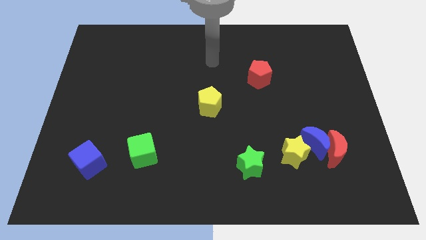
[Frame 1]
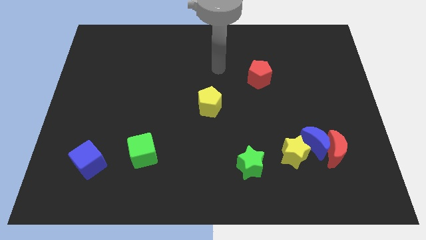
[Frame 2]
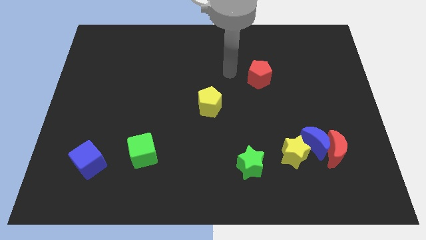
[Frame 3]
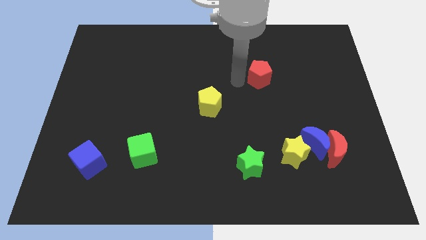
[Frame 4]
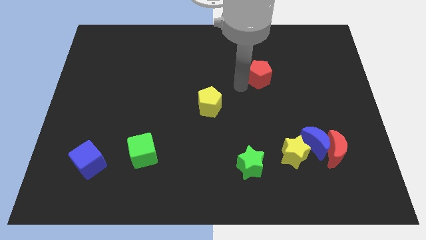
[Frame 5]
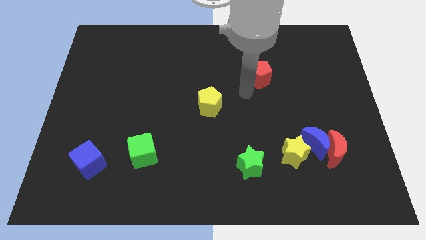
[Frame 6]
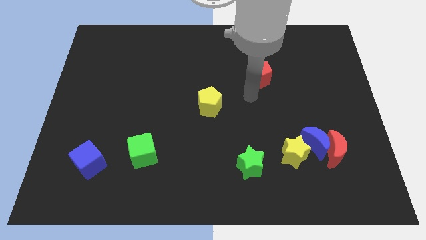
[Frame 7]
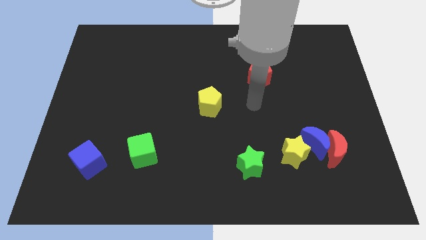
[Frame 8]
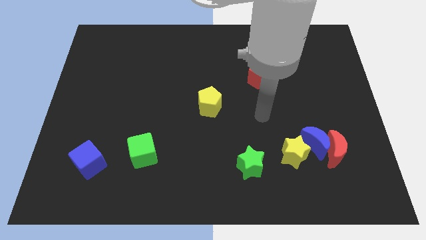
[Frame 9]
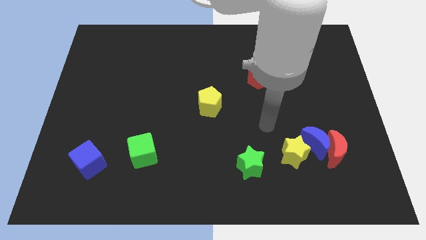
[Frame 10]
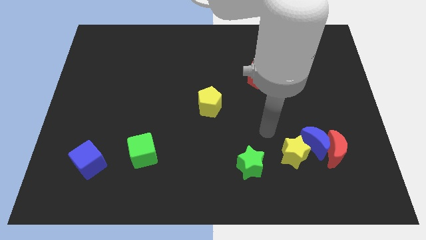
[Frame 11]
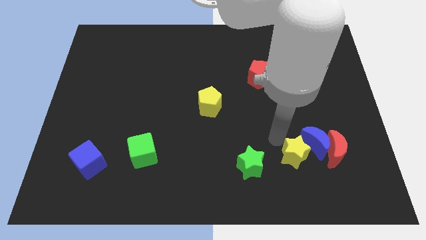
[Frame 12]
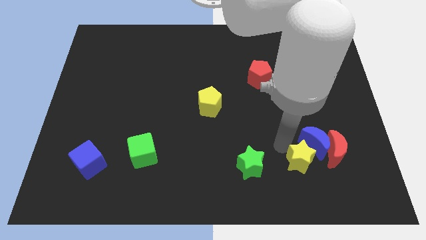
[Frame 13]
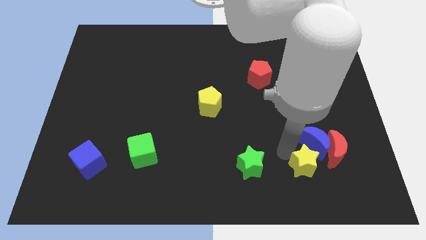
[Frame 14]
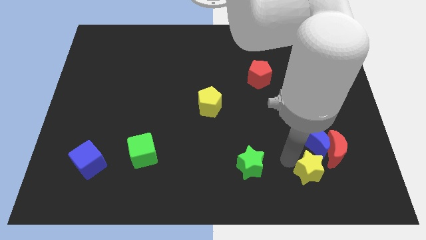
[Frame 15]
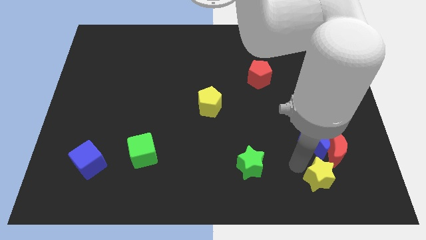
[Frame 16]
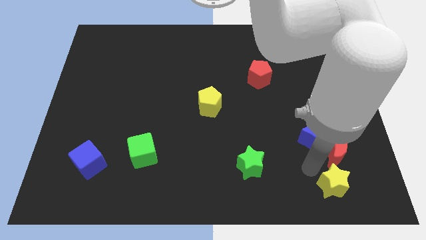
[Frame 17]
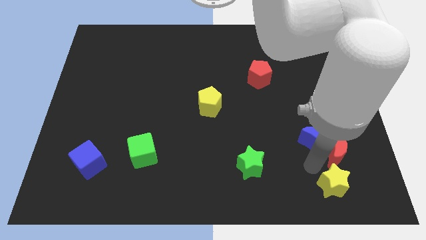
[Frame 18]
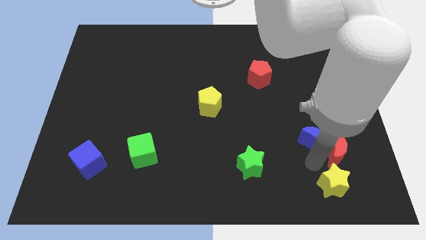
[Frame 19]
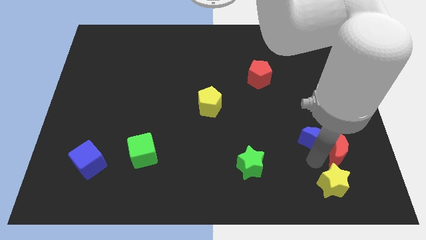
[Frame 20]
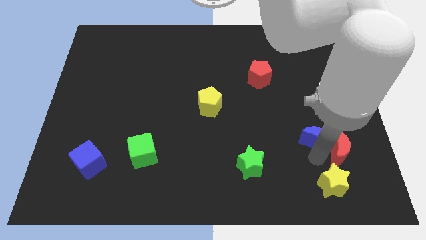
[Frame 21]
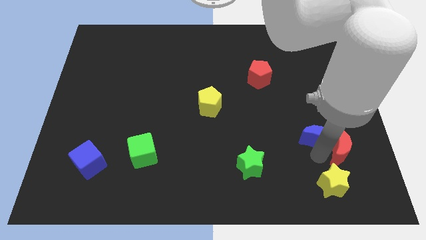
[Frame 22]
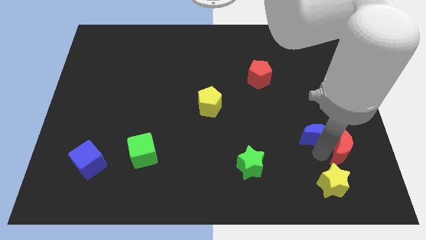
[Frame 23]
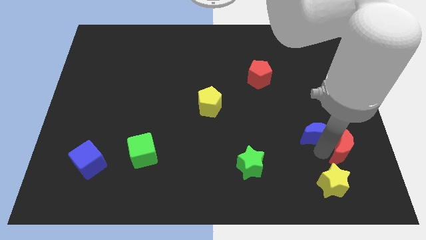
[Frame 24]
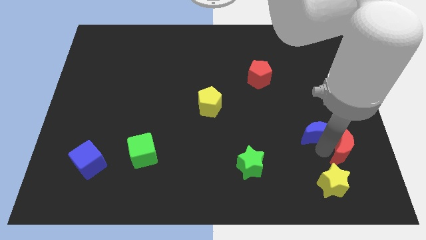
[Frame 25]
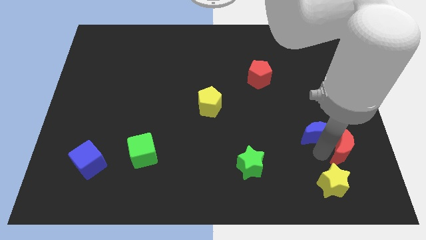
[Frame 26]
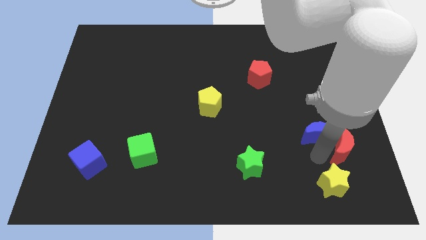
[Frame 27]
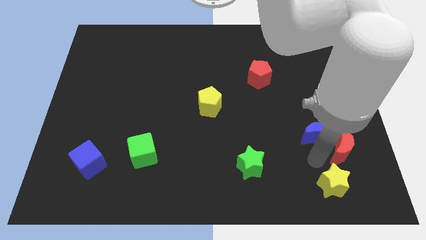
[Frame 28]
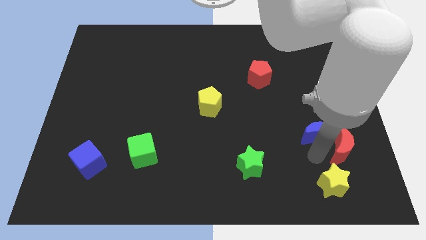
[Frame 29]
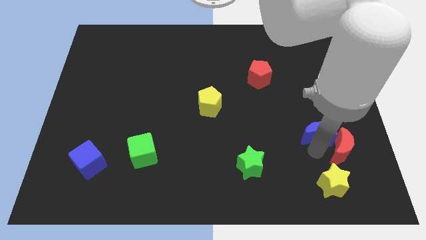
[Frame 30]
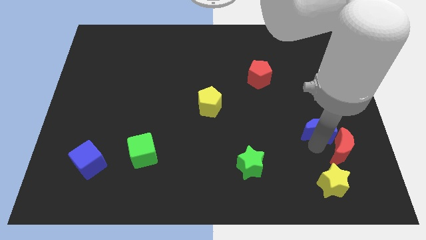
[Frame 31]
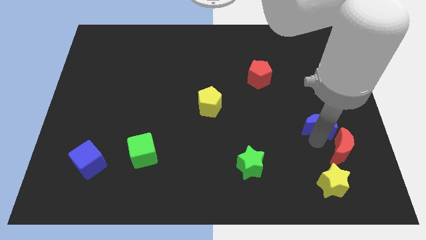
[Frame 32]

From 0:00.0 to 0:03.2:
move the blue moon away from the red moon and yellow star

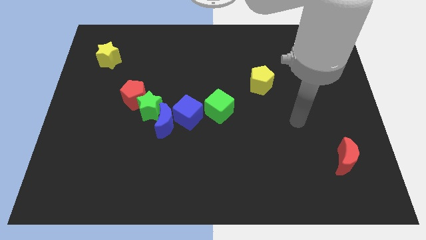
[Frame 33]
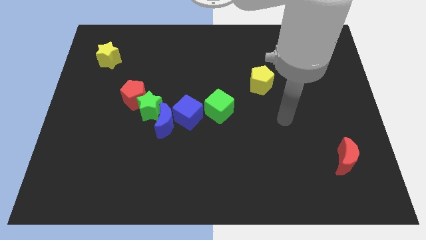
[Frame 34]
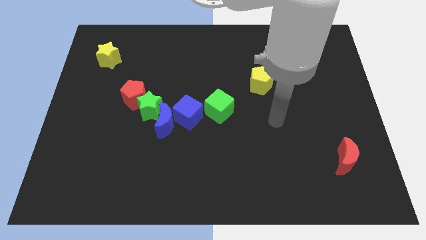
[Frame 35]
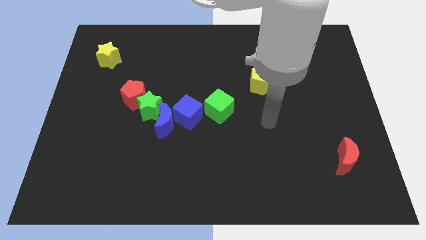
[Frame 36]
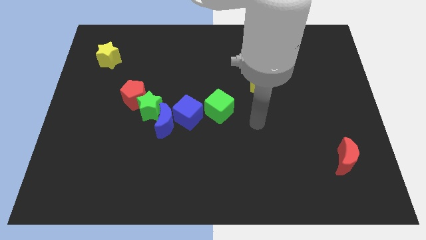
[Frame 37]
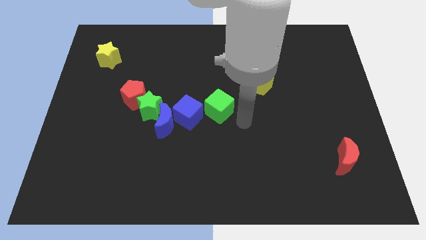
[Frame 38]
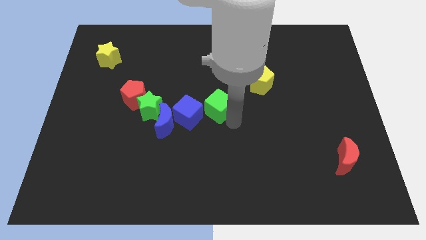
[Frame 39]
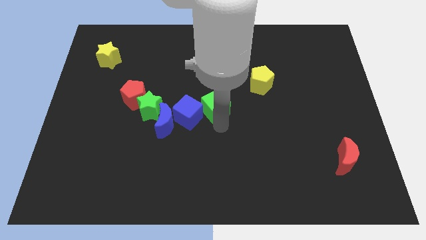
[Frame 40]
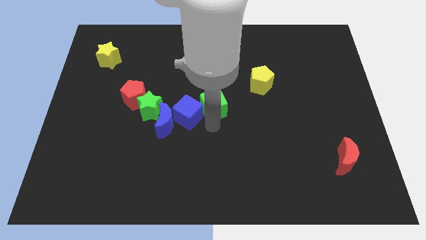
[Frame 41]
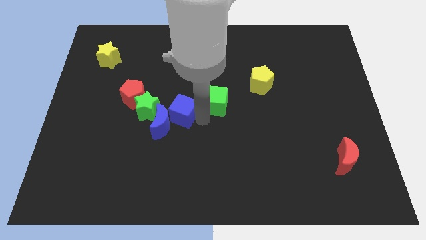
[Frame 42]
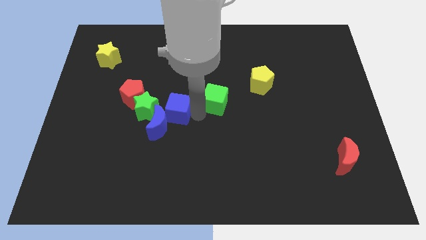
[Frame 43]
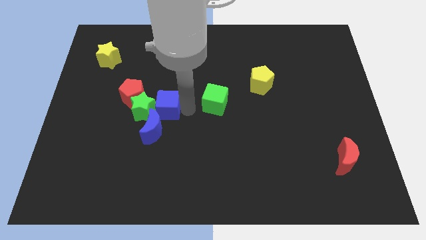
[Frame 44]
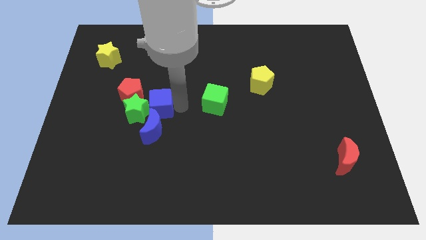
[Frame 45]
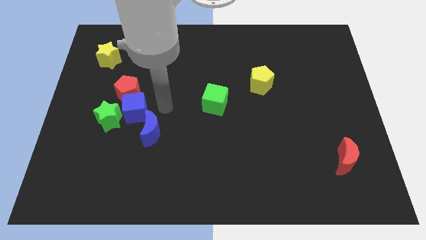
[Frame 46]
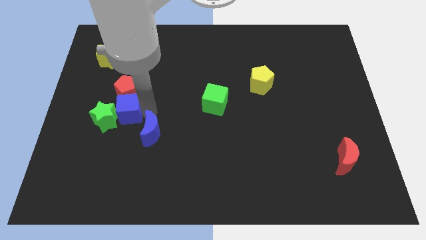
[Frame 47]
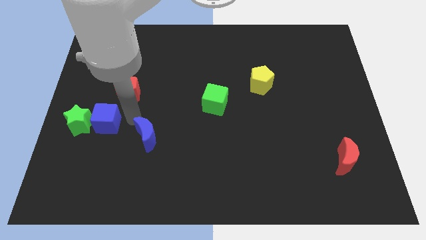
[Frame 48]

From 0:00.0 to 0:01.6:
move the blue moon away from the green star and blue cube

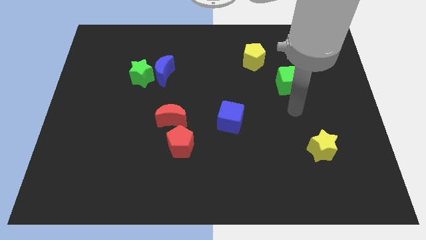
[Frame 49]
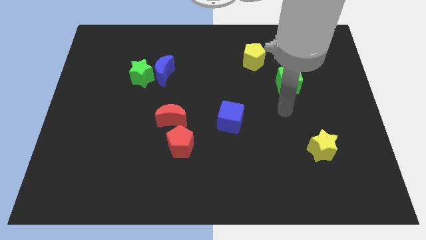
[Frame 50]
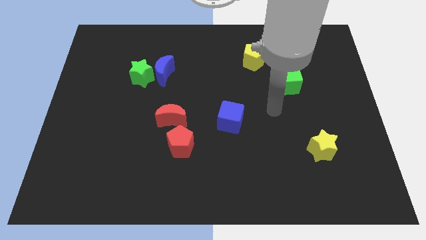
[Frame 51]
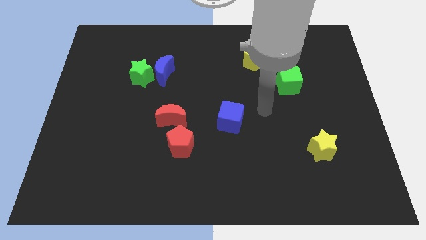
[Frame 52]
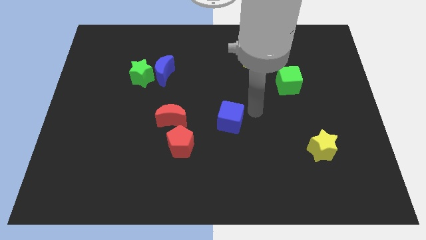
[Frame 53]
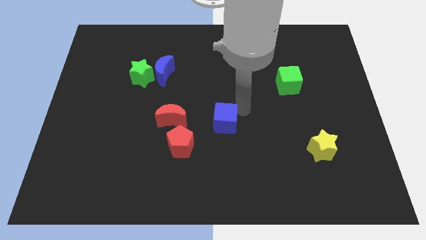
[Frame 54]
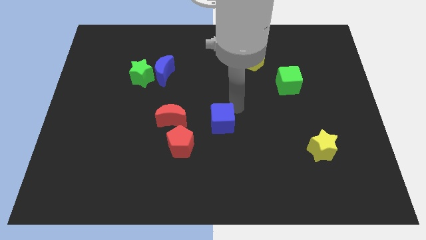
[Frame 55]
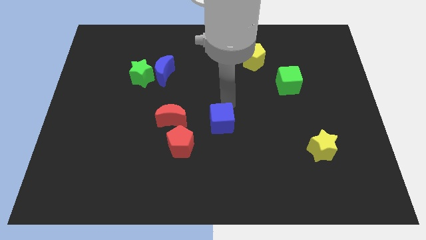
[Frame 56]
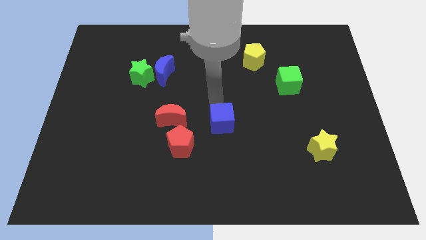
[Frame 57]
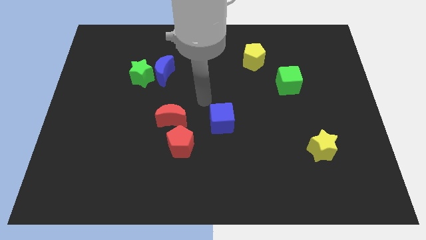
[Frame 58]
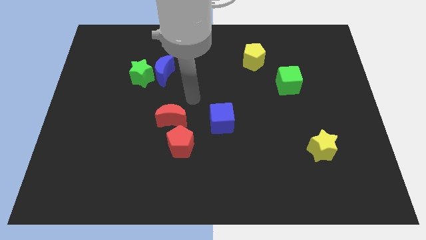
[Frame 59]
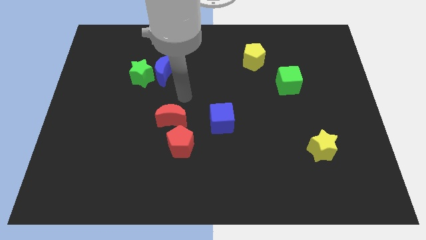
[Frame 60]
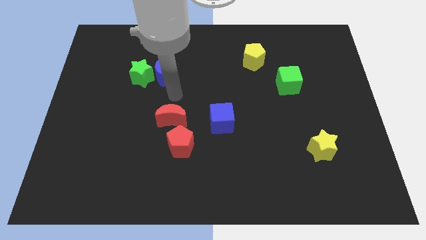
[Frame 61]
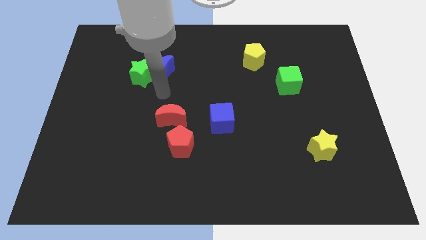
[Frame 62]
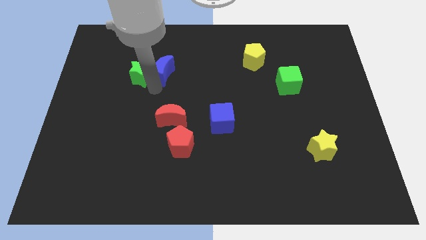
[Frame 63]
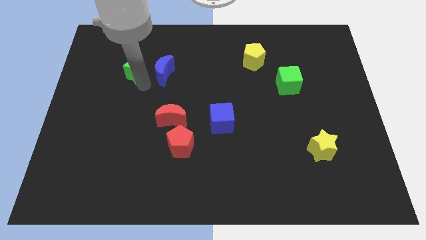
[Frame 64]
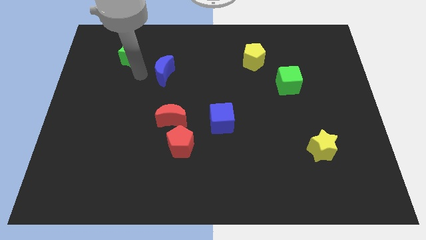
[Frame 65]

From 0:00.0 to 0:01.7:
separate the blue moon from the green star

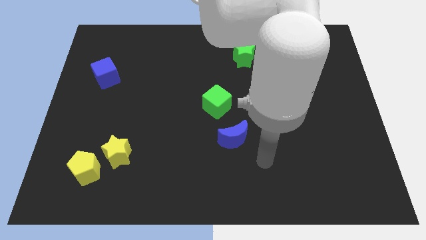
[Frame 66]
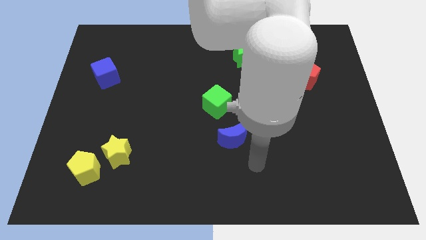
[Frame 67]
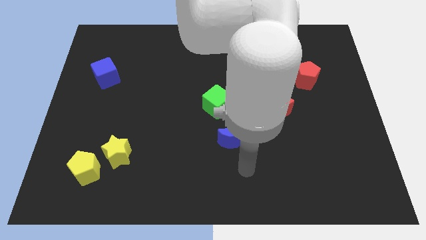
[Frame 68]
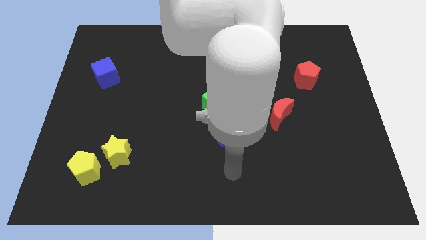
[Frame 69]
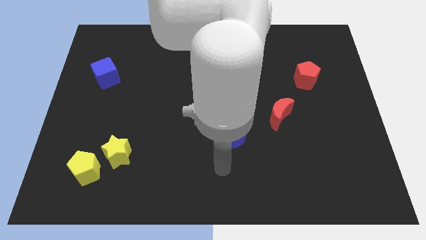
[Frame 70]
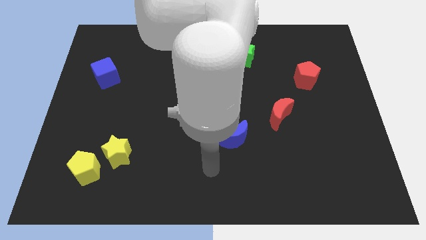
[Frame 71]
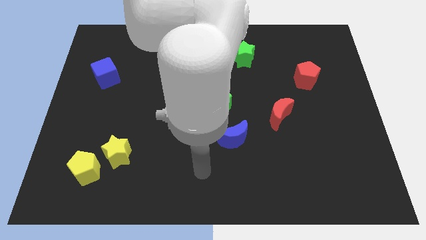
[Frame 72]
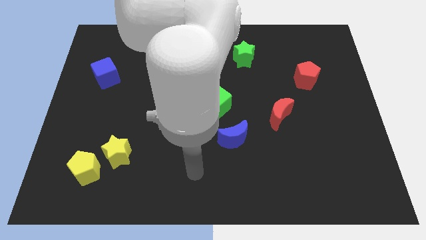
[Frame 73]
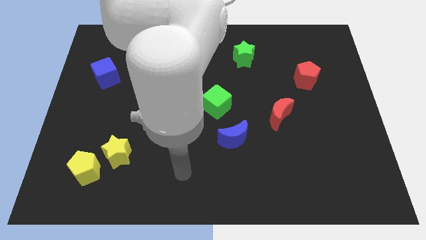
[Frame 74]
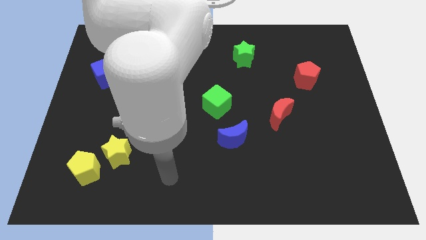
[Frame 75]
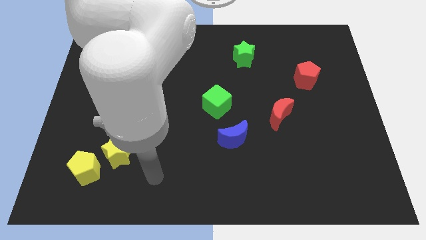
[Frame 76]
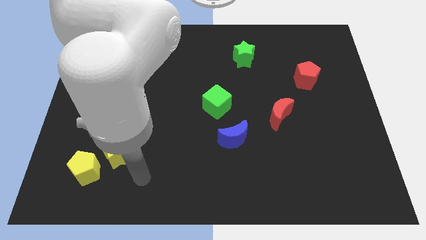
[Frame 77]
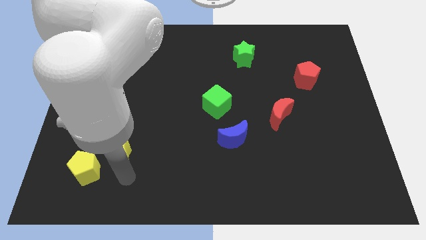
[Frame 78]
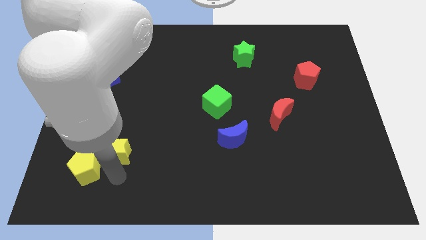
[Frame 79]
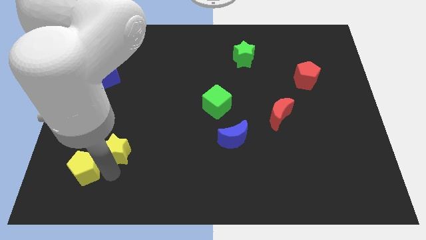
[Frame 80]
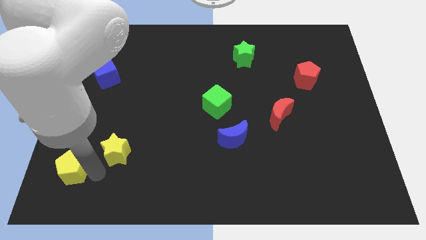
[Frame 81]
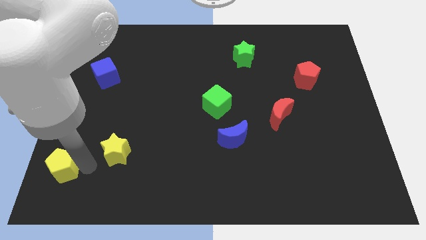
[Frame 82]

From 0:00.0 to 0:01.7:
separate the yellow star from the yellow pentagon

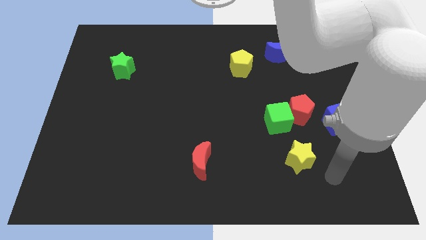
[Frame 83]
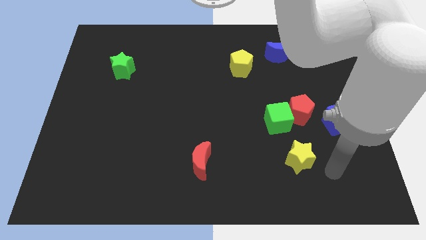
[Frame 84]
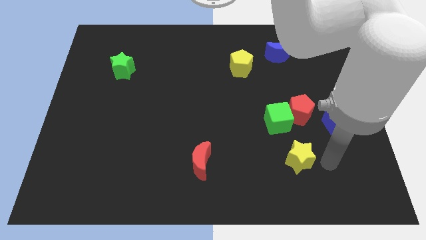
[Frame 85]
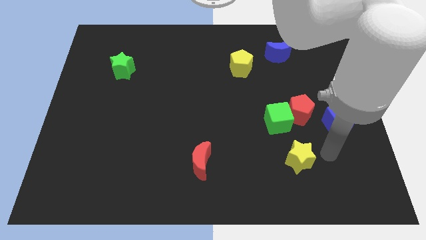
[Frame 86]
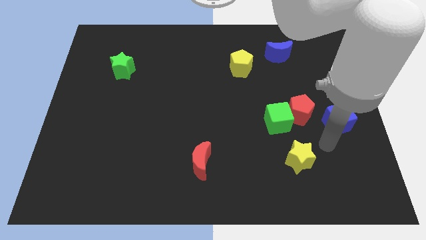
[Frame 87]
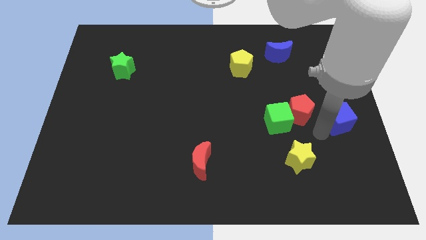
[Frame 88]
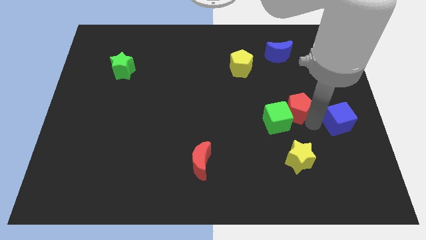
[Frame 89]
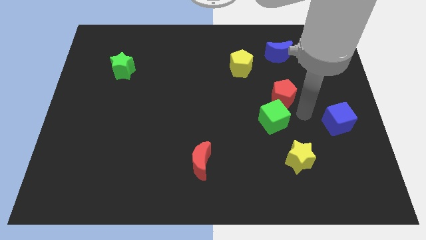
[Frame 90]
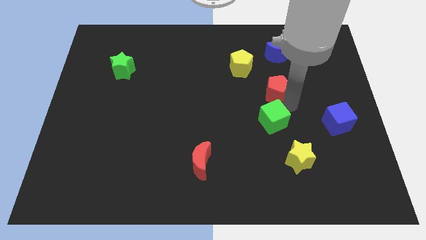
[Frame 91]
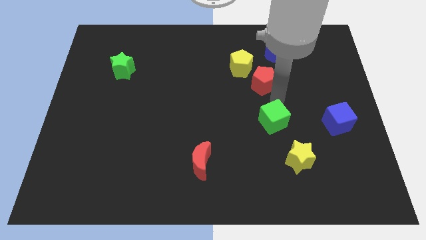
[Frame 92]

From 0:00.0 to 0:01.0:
separate the green cube from the red pentagon
